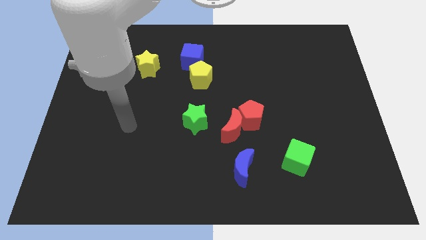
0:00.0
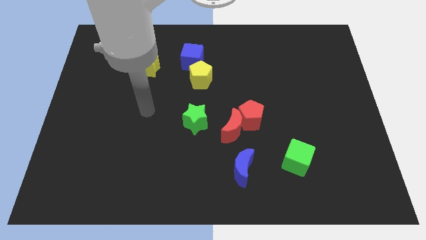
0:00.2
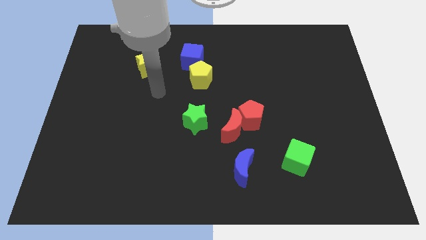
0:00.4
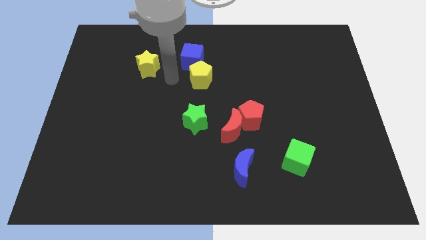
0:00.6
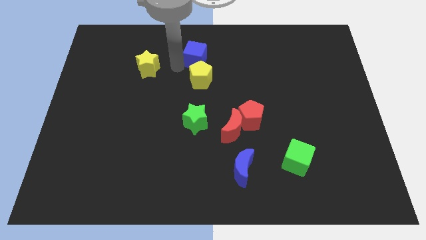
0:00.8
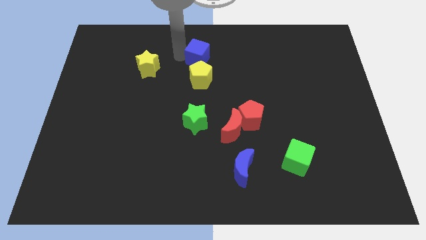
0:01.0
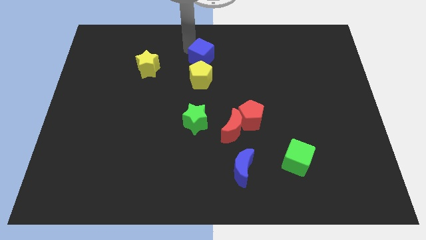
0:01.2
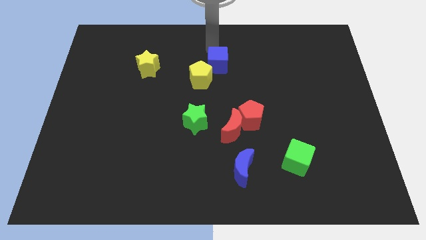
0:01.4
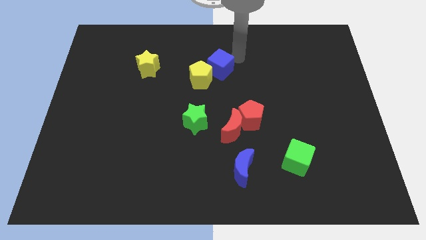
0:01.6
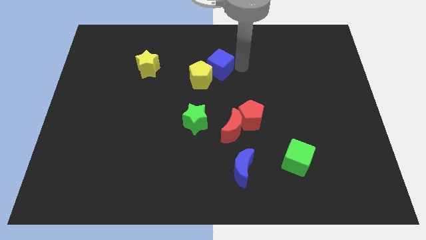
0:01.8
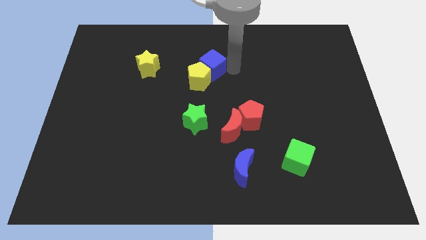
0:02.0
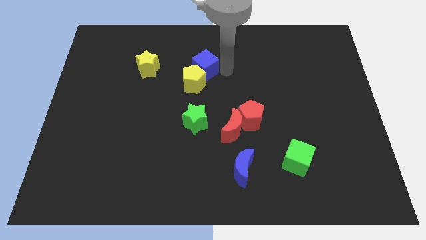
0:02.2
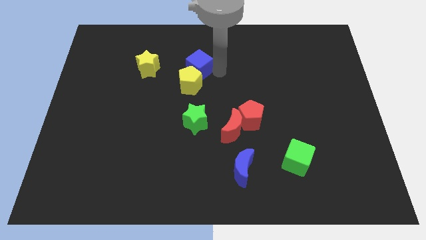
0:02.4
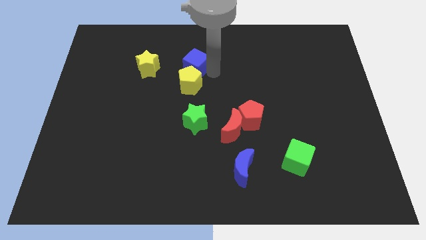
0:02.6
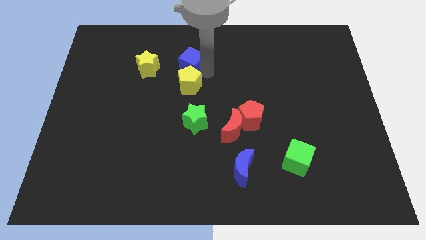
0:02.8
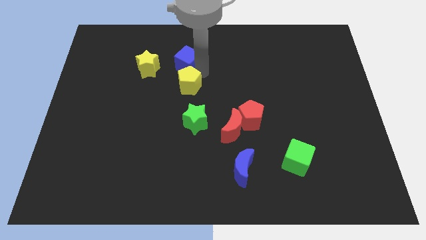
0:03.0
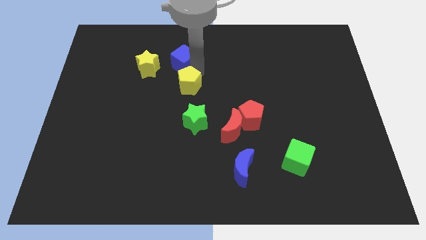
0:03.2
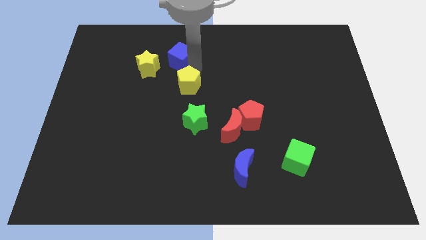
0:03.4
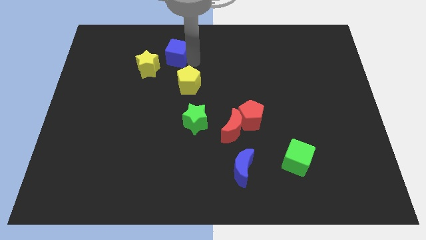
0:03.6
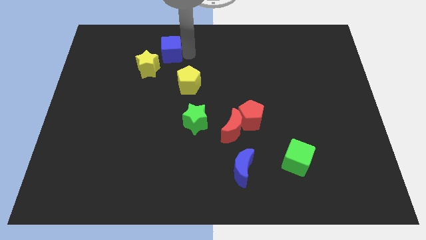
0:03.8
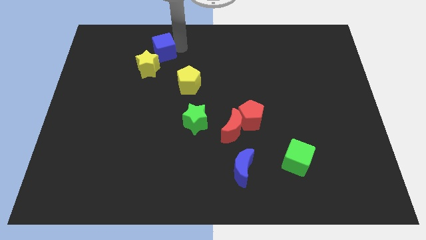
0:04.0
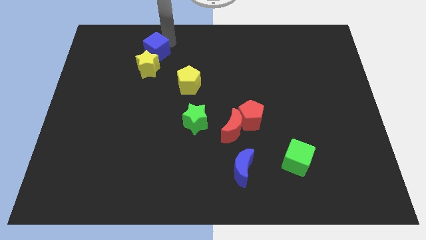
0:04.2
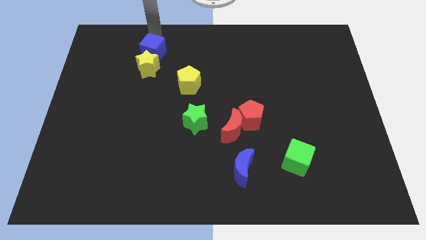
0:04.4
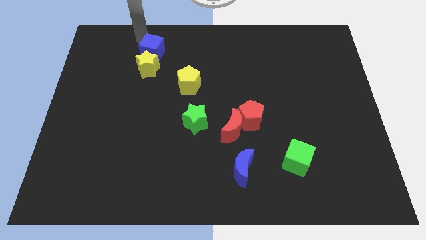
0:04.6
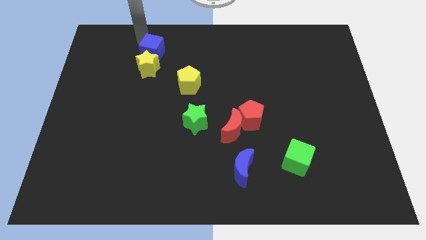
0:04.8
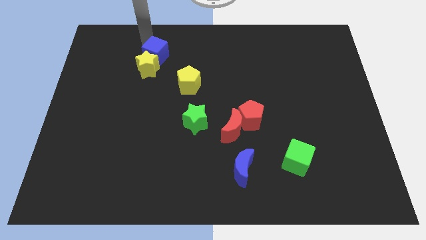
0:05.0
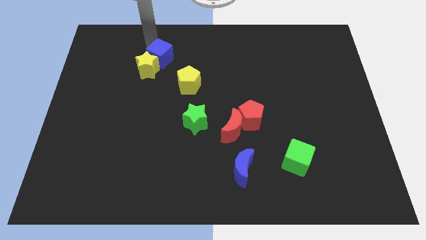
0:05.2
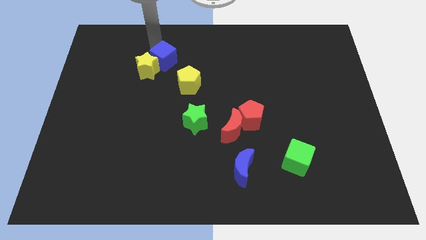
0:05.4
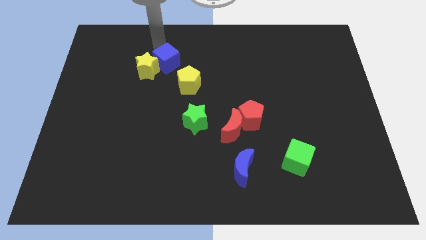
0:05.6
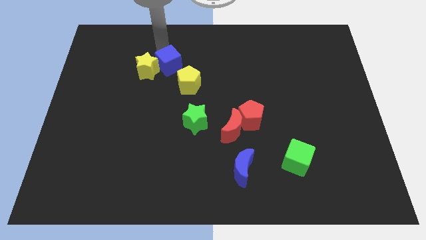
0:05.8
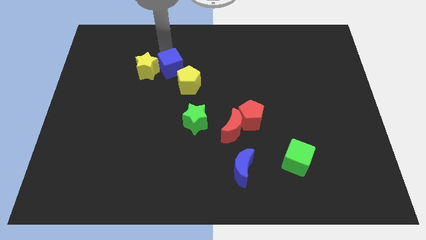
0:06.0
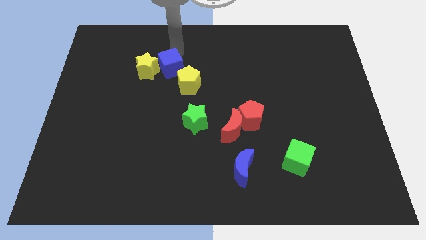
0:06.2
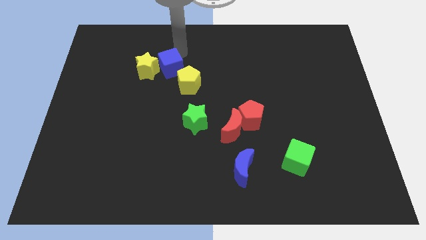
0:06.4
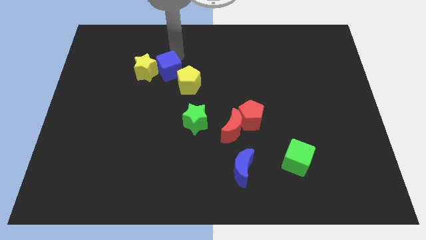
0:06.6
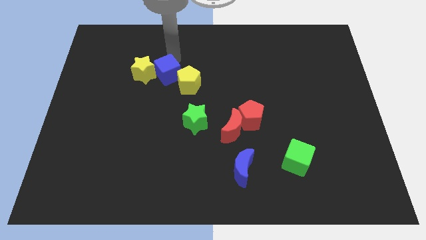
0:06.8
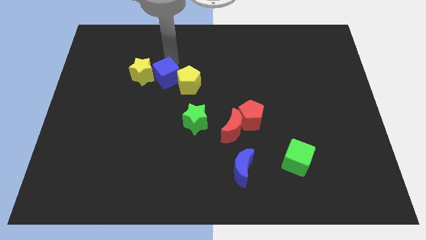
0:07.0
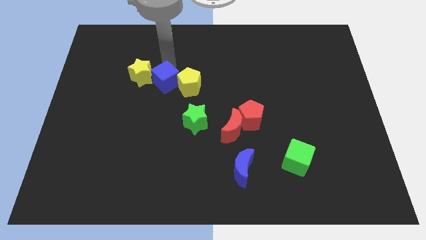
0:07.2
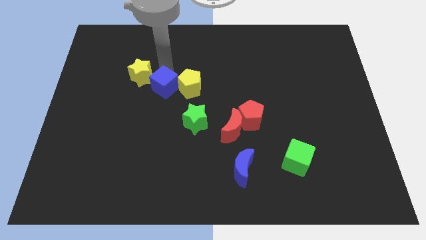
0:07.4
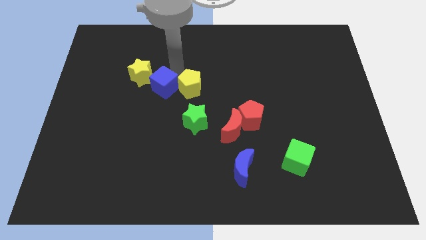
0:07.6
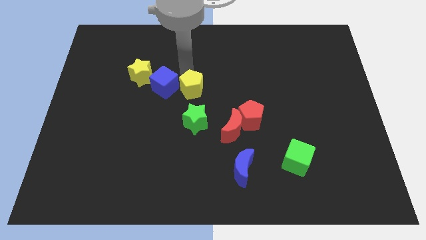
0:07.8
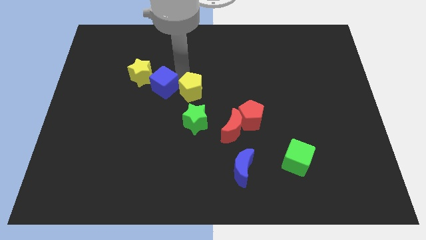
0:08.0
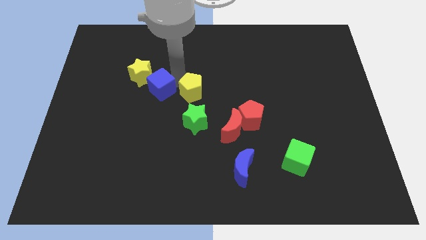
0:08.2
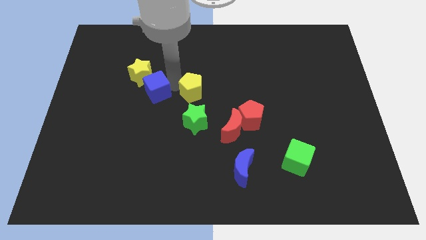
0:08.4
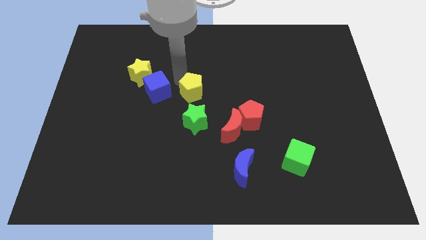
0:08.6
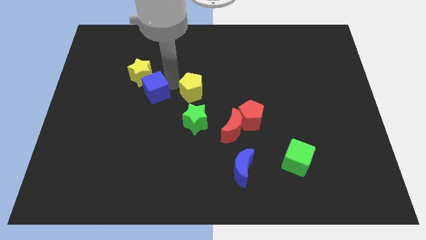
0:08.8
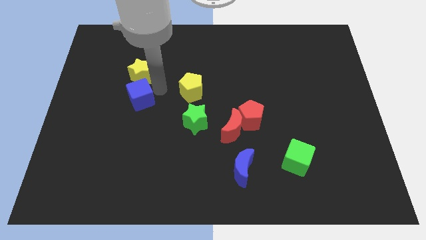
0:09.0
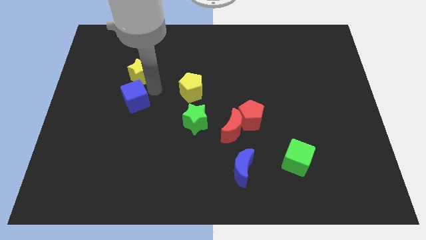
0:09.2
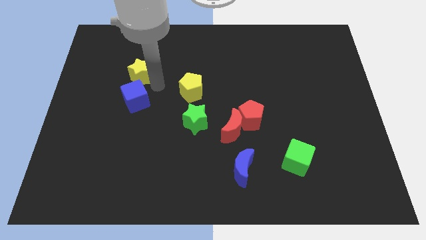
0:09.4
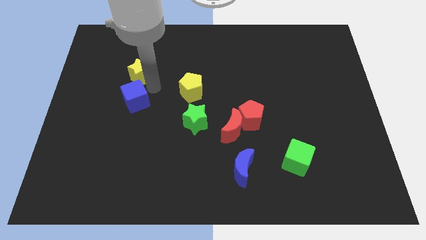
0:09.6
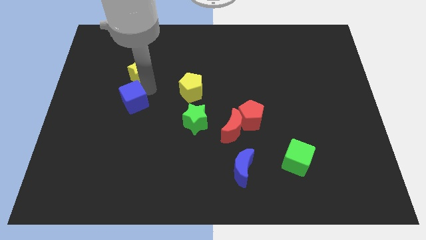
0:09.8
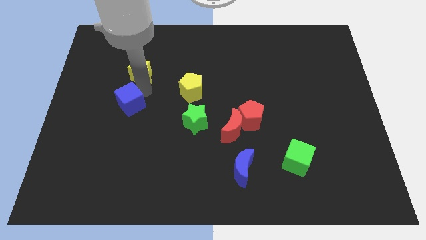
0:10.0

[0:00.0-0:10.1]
slide the blue cube down and to the left diagonally

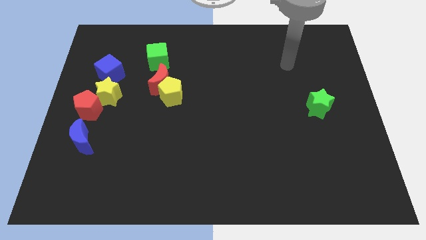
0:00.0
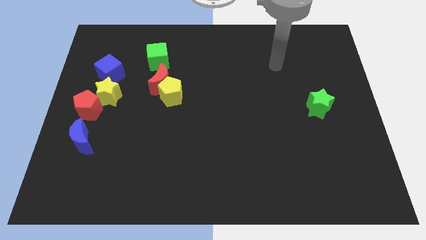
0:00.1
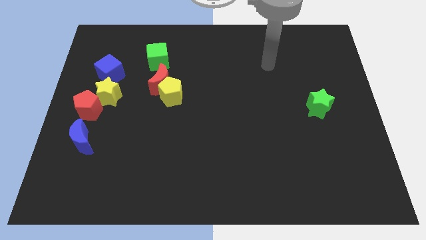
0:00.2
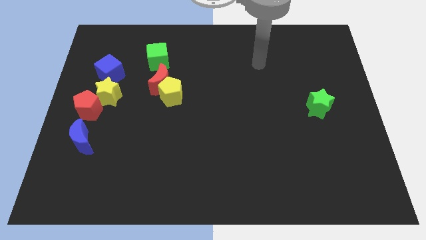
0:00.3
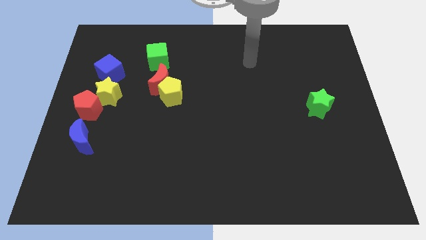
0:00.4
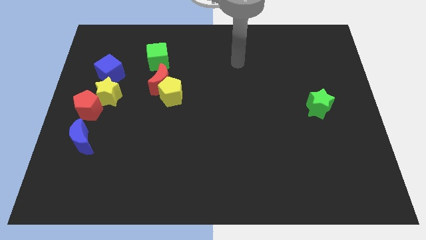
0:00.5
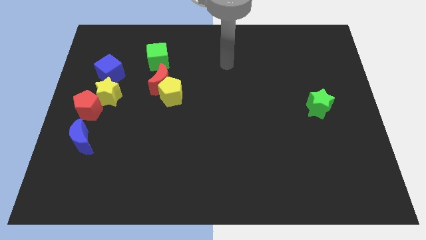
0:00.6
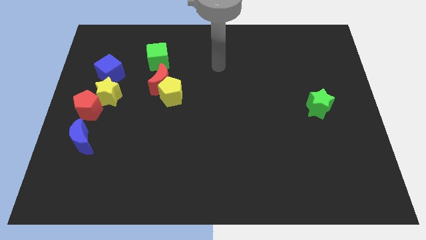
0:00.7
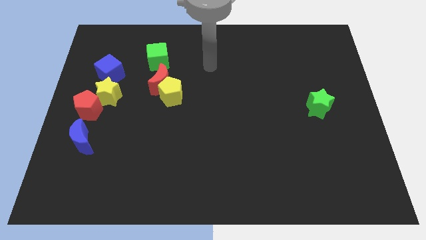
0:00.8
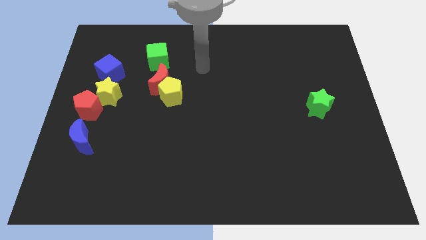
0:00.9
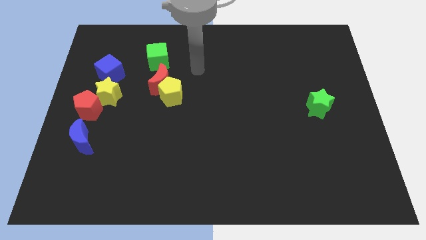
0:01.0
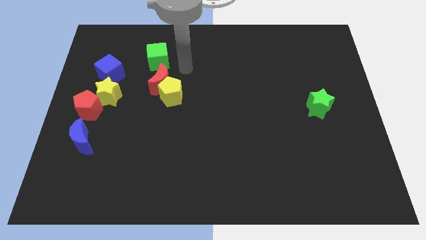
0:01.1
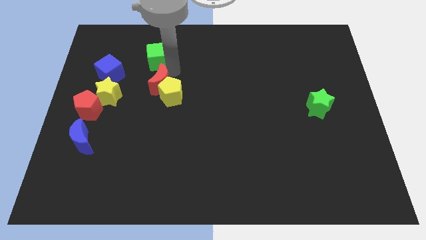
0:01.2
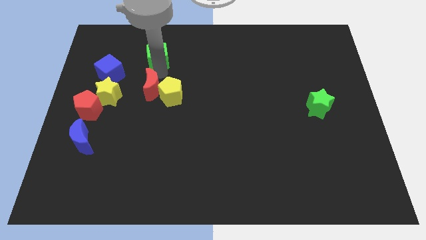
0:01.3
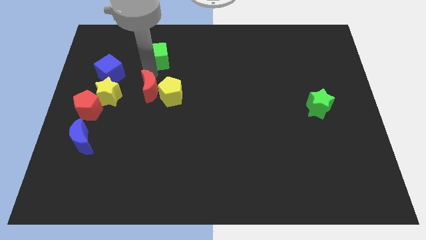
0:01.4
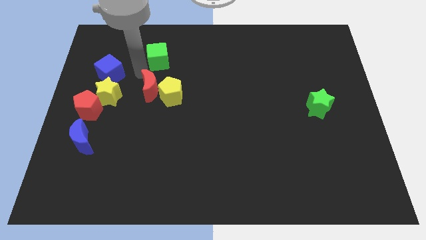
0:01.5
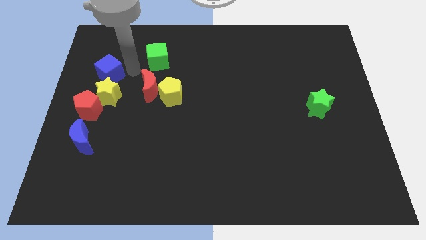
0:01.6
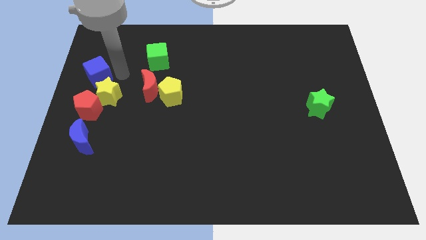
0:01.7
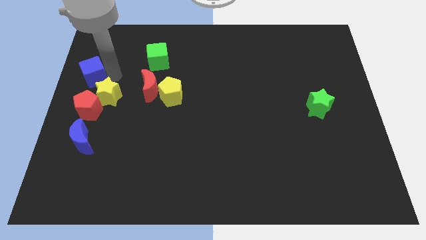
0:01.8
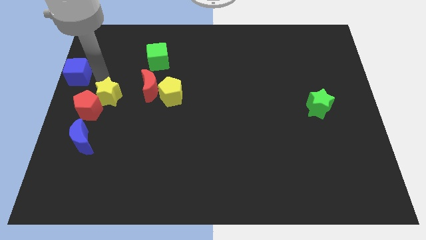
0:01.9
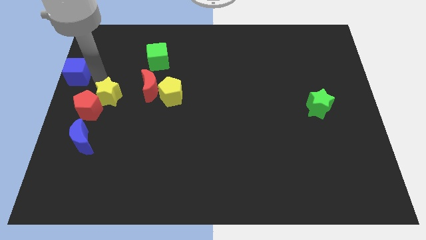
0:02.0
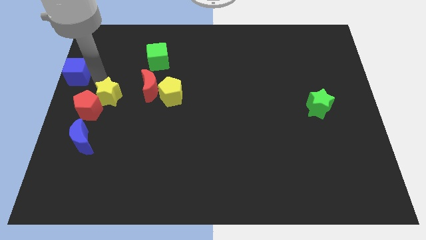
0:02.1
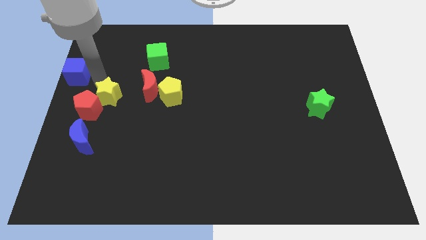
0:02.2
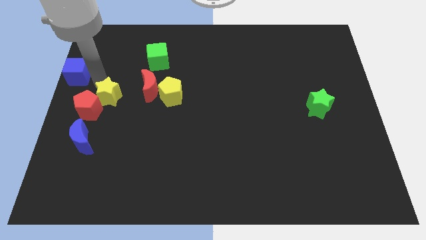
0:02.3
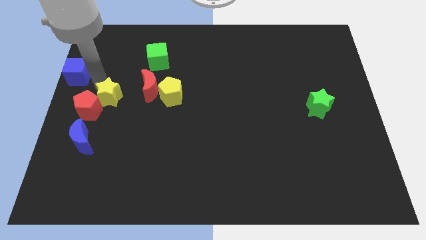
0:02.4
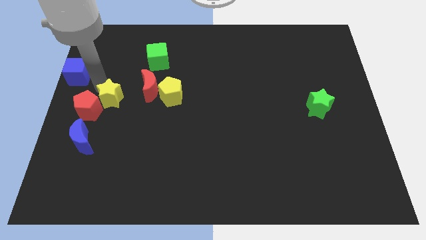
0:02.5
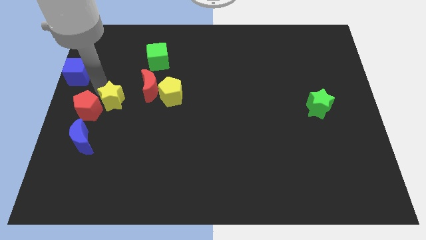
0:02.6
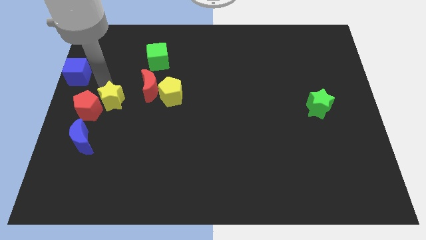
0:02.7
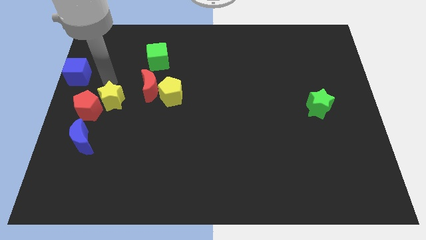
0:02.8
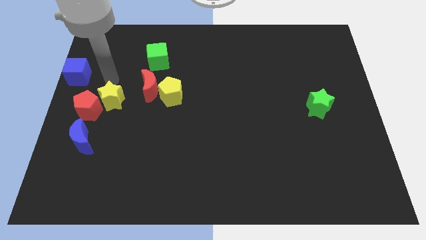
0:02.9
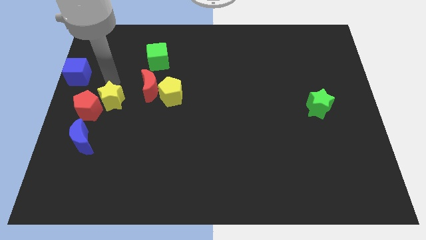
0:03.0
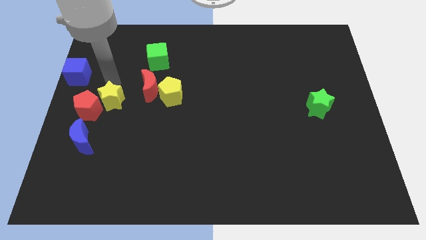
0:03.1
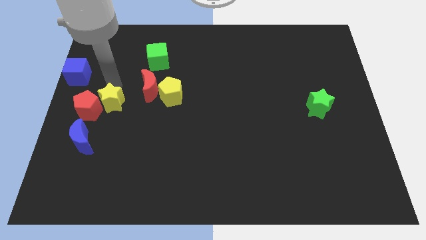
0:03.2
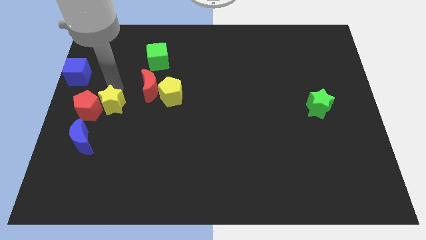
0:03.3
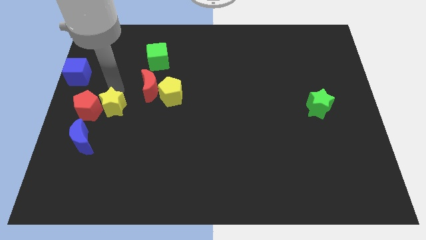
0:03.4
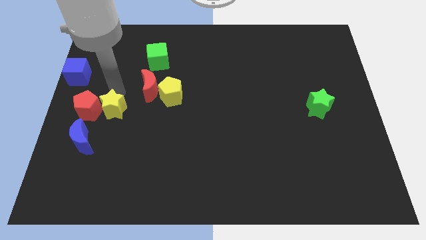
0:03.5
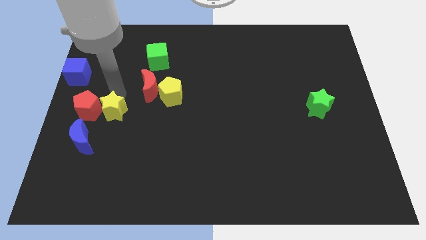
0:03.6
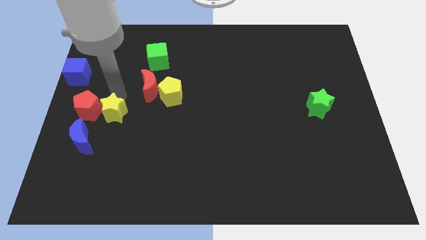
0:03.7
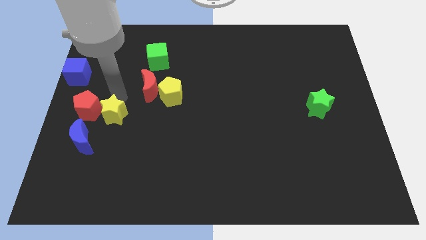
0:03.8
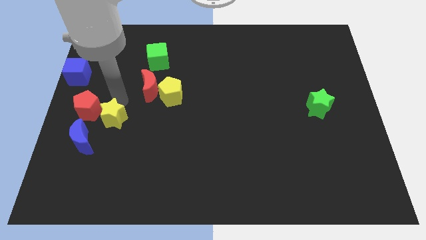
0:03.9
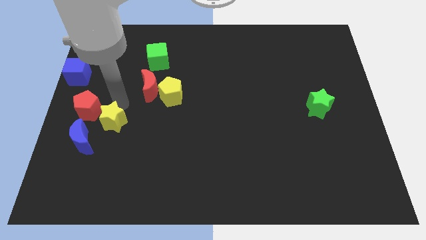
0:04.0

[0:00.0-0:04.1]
slightly push the yellow star downwards
